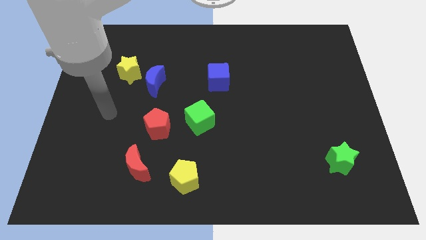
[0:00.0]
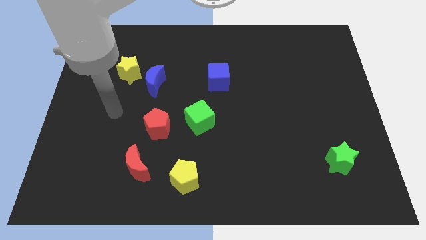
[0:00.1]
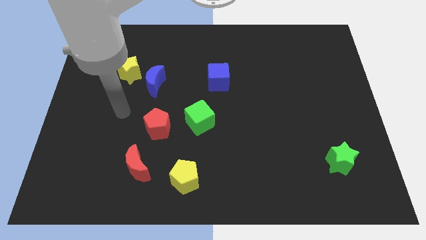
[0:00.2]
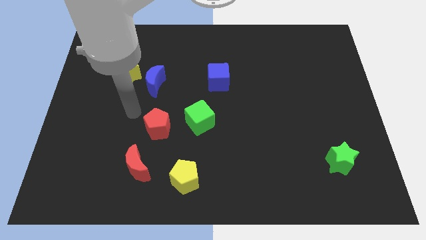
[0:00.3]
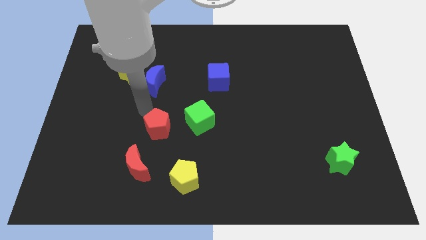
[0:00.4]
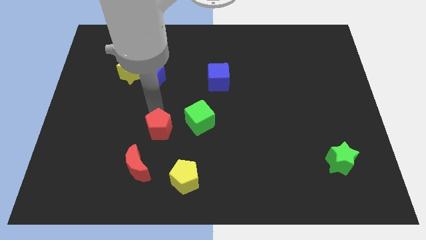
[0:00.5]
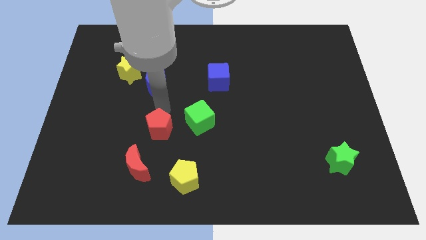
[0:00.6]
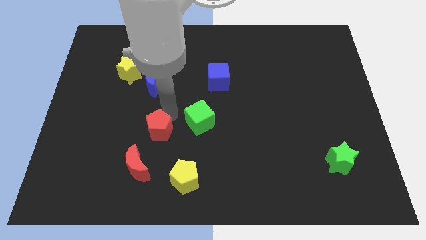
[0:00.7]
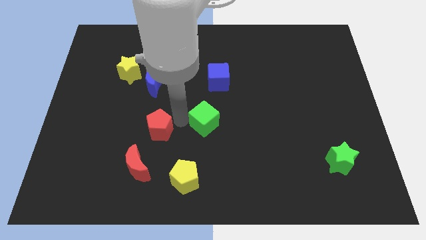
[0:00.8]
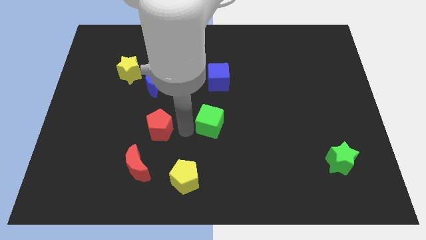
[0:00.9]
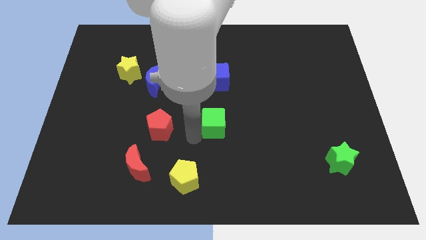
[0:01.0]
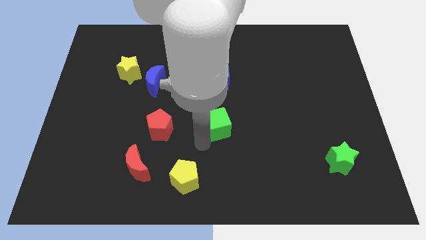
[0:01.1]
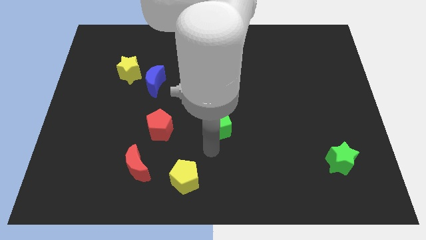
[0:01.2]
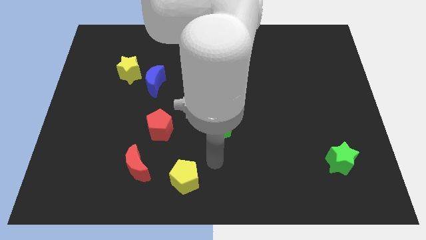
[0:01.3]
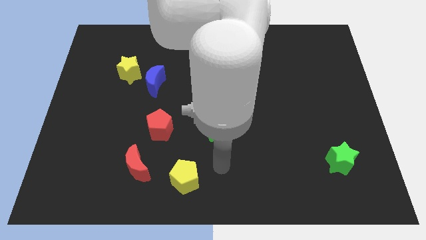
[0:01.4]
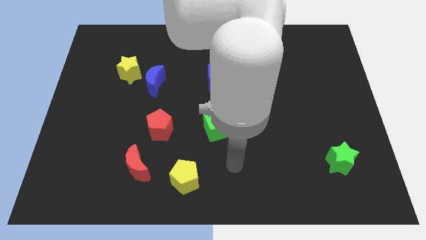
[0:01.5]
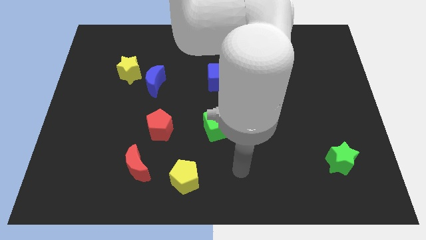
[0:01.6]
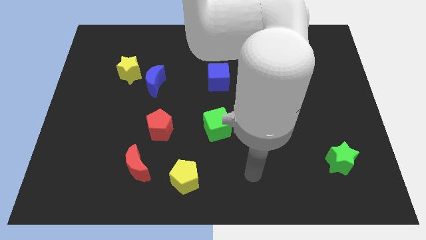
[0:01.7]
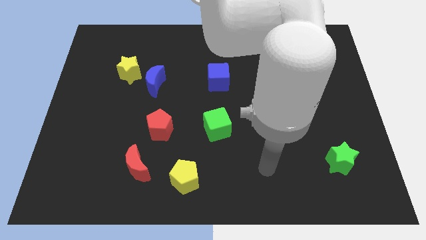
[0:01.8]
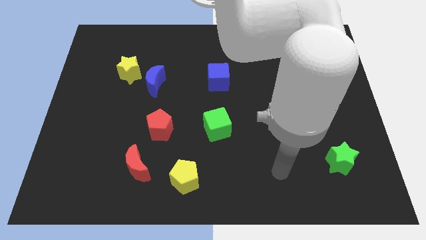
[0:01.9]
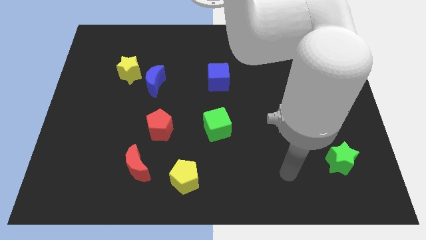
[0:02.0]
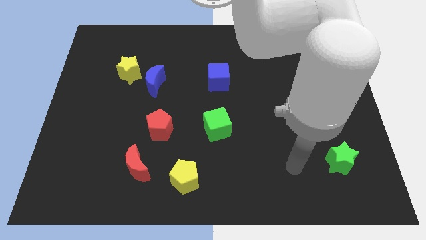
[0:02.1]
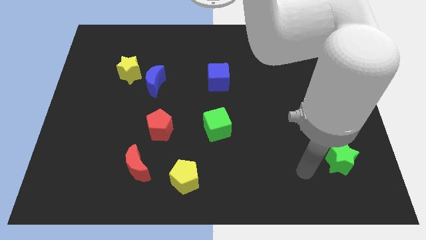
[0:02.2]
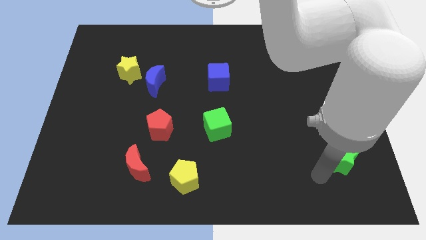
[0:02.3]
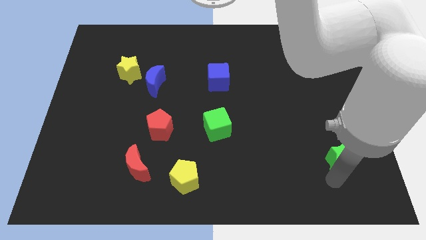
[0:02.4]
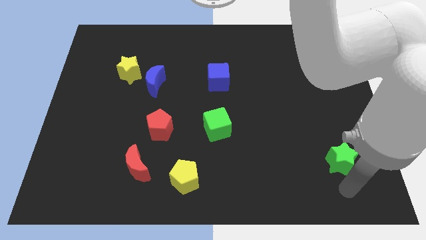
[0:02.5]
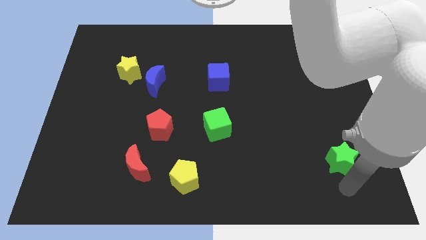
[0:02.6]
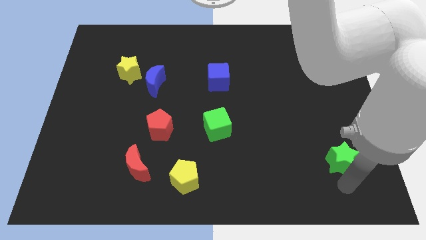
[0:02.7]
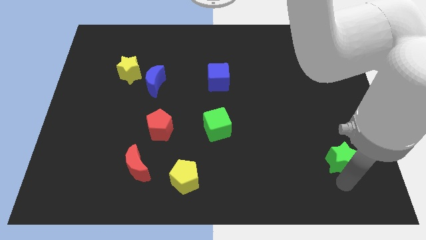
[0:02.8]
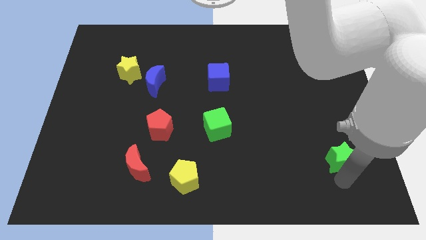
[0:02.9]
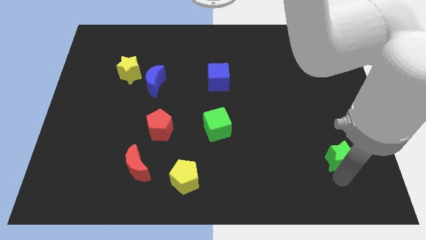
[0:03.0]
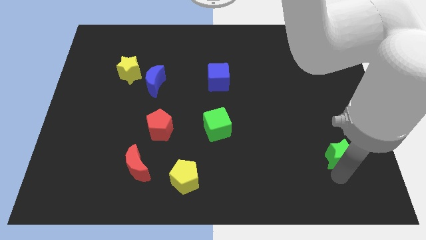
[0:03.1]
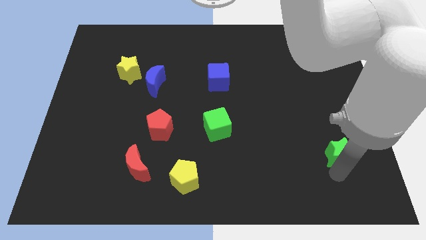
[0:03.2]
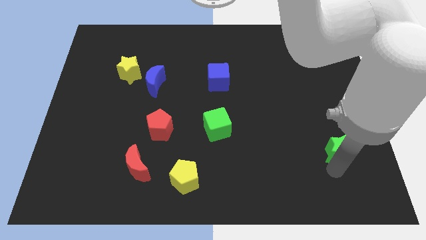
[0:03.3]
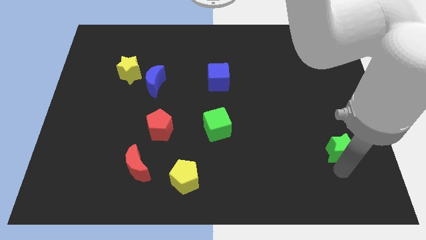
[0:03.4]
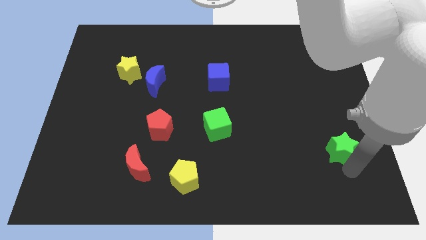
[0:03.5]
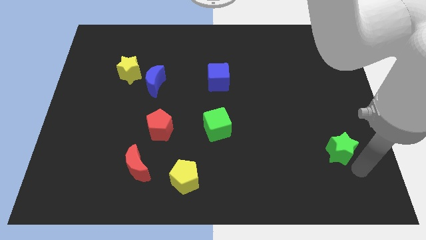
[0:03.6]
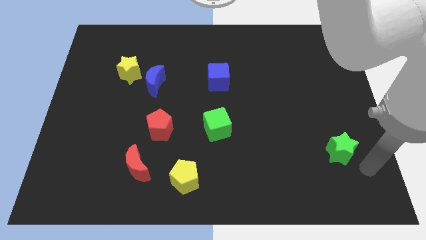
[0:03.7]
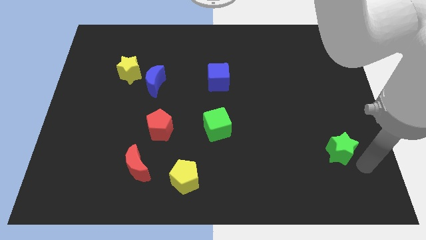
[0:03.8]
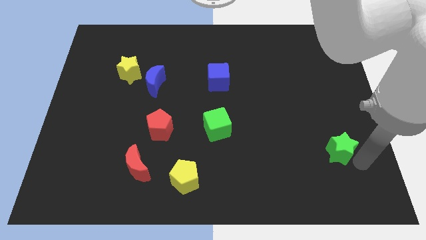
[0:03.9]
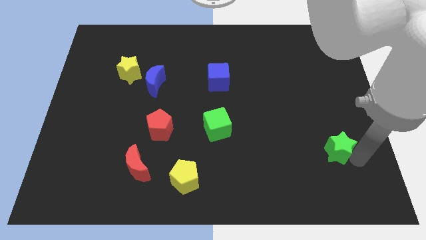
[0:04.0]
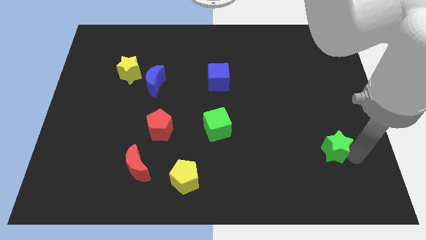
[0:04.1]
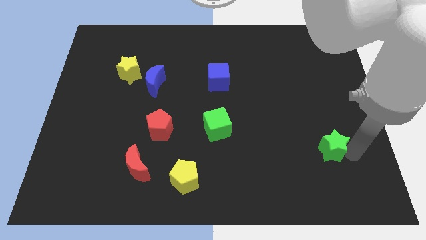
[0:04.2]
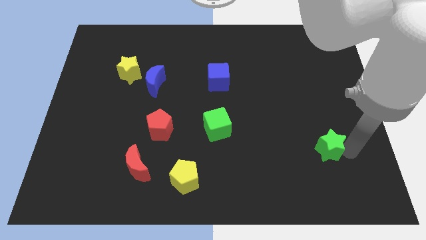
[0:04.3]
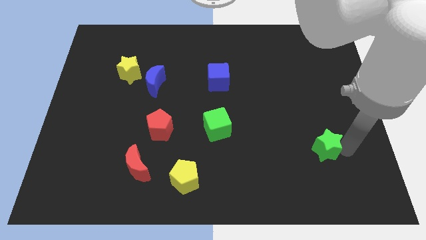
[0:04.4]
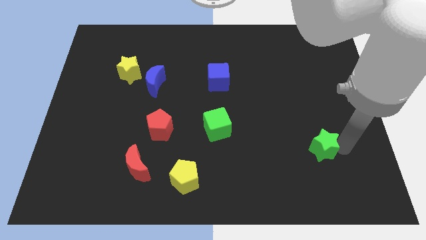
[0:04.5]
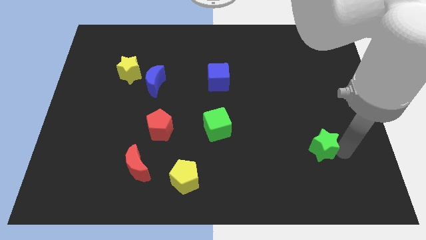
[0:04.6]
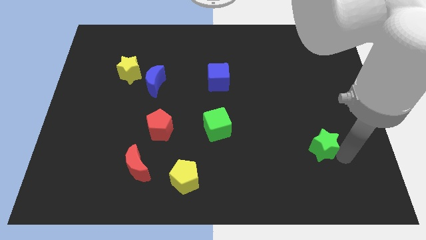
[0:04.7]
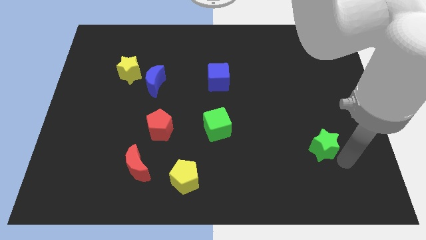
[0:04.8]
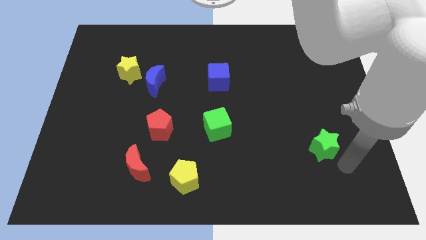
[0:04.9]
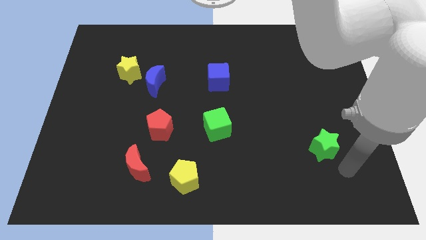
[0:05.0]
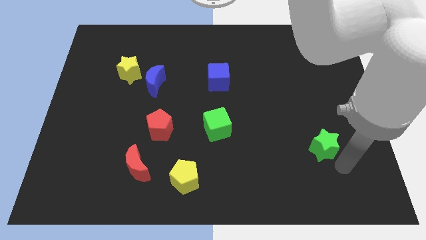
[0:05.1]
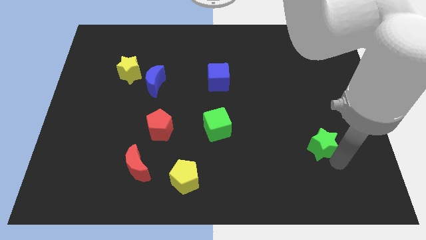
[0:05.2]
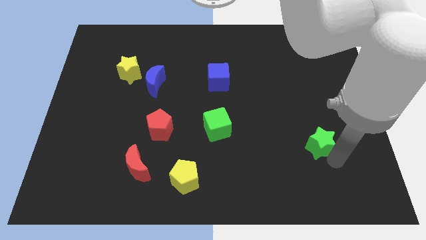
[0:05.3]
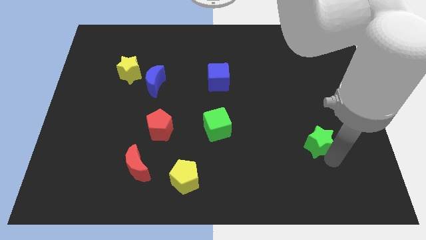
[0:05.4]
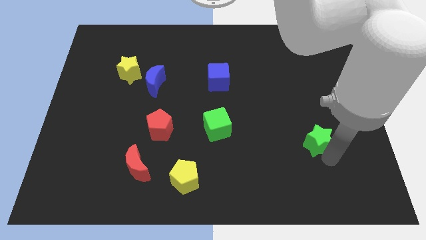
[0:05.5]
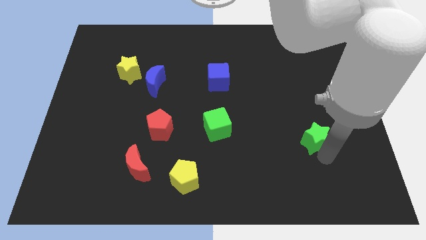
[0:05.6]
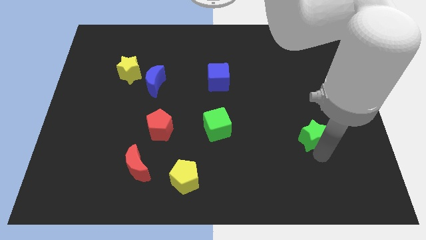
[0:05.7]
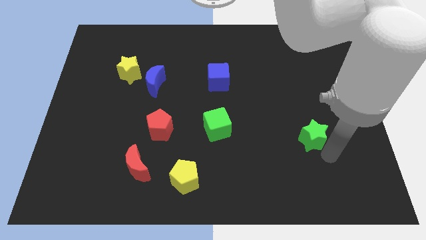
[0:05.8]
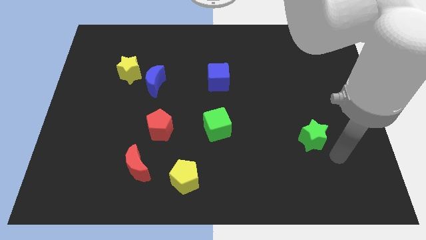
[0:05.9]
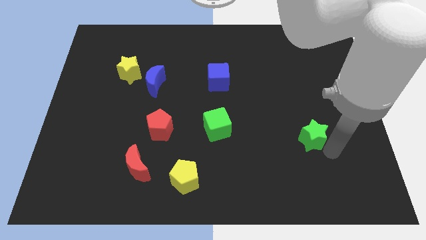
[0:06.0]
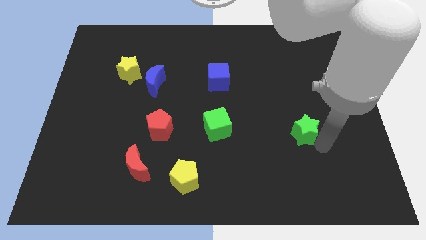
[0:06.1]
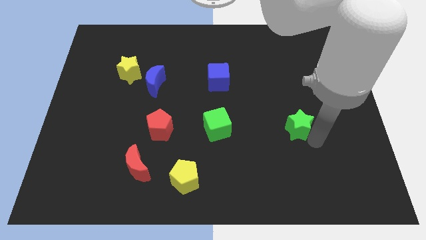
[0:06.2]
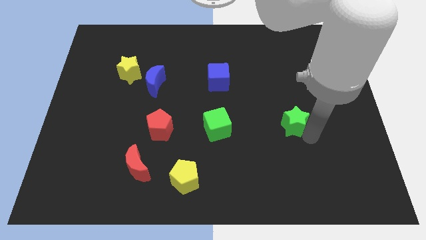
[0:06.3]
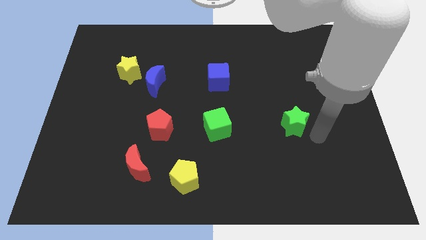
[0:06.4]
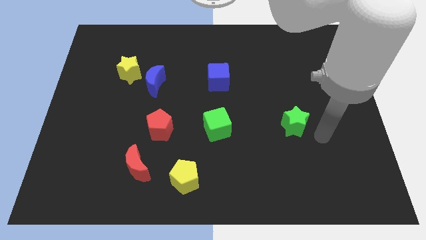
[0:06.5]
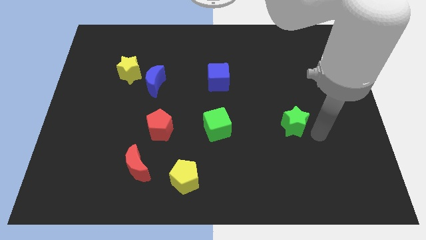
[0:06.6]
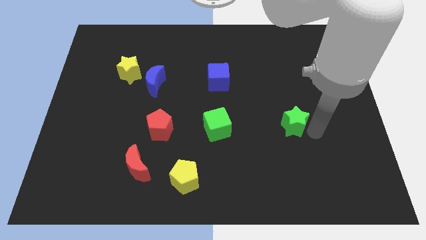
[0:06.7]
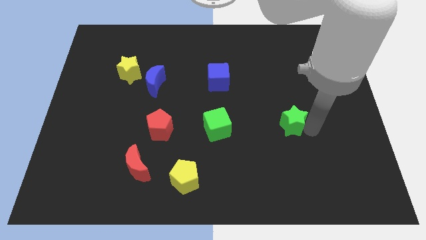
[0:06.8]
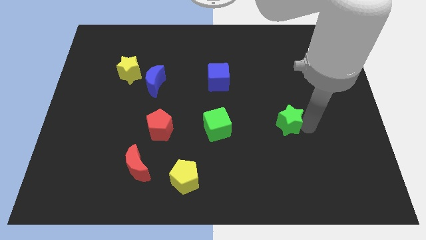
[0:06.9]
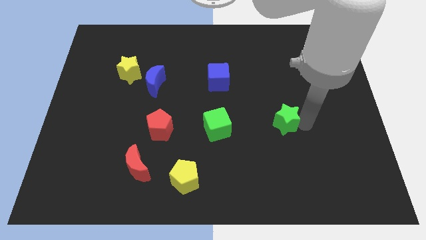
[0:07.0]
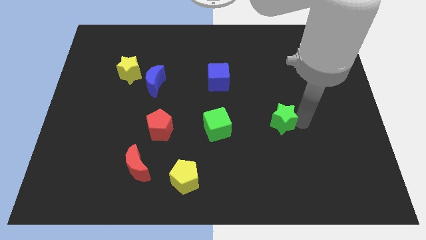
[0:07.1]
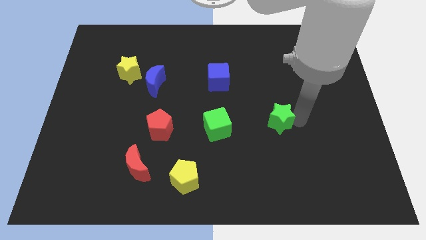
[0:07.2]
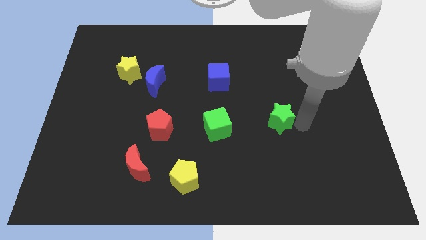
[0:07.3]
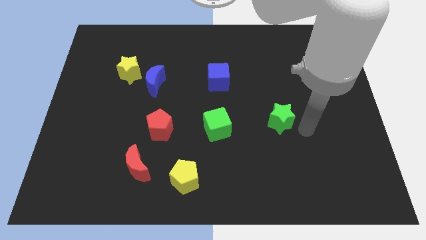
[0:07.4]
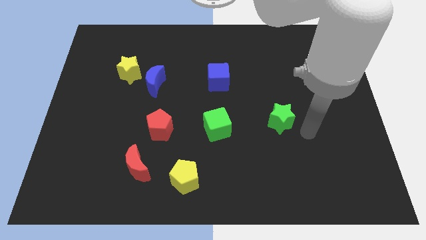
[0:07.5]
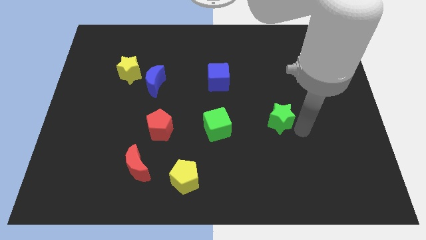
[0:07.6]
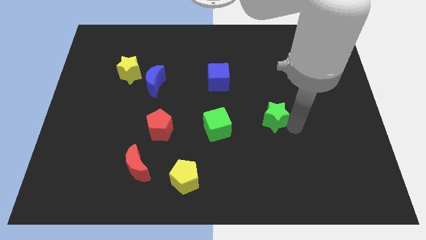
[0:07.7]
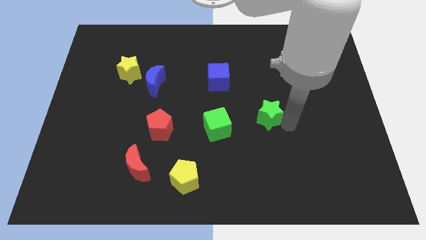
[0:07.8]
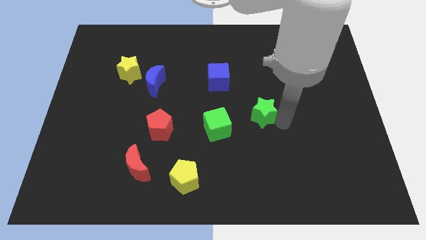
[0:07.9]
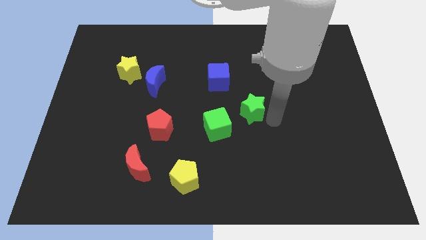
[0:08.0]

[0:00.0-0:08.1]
put the green star diagonally down and to the right of the blue cube

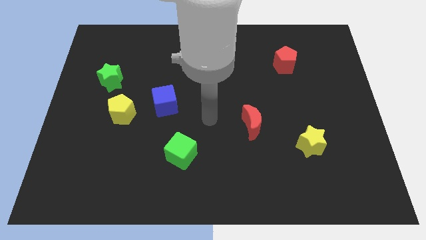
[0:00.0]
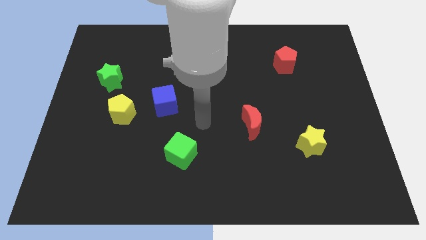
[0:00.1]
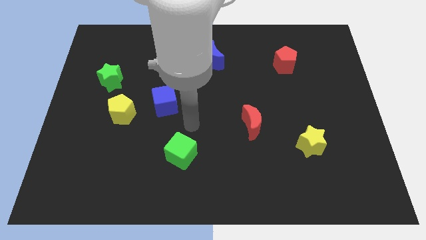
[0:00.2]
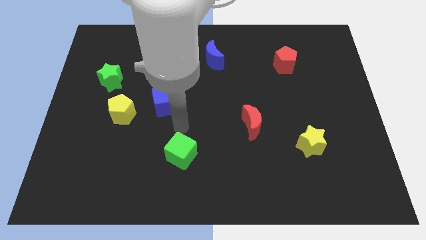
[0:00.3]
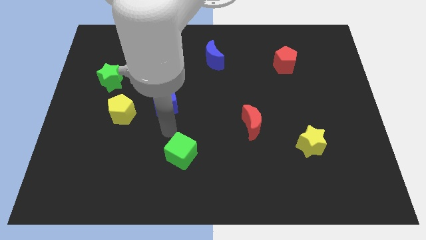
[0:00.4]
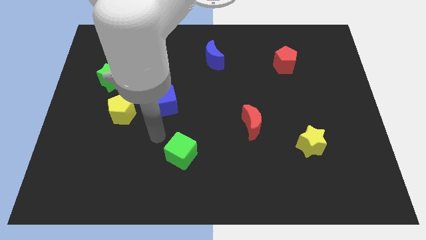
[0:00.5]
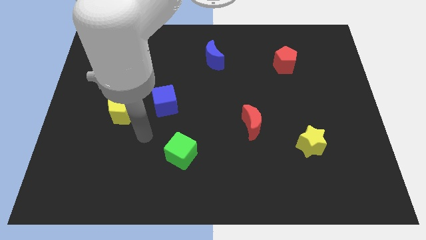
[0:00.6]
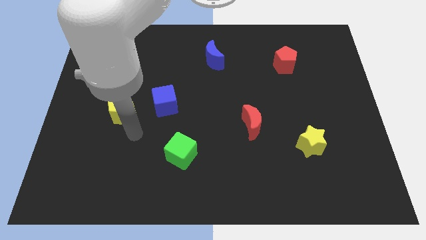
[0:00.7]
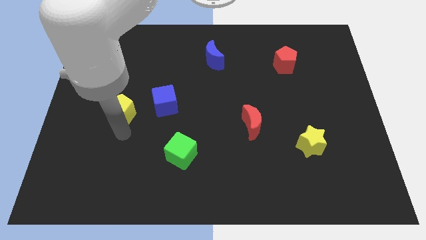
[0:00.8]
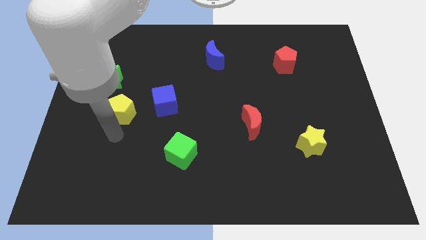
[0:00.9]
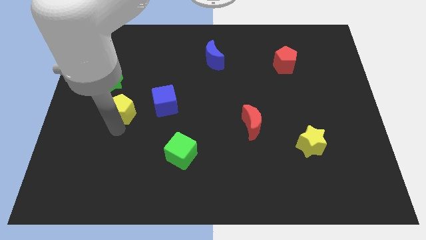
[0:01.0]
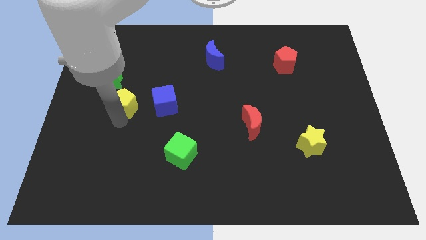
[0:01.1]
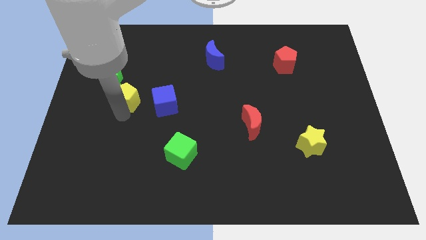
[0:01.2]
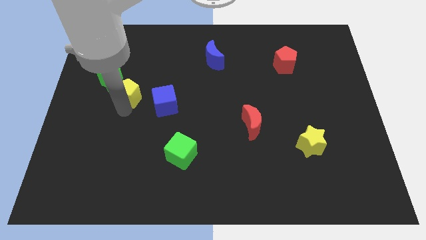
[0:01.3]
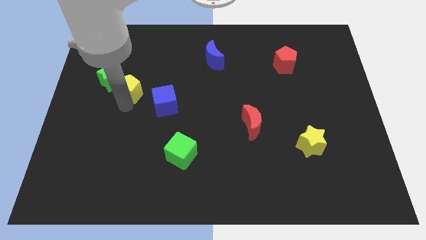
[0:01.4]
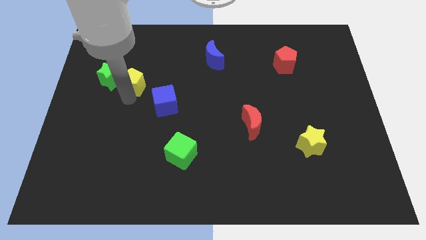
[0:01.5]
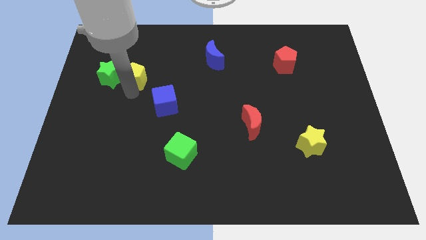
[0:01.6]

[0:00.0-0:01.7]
move the yellow pentagon diagonally up and to the right of the green star
